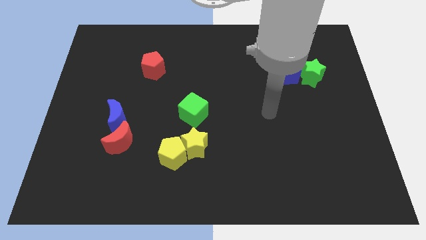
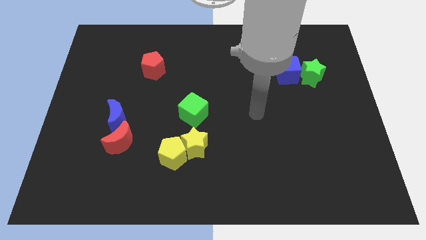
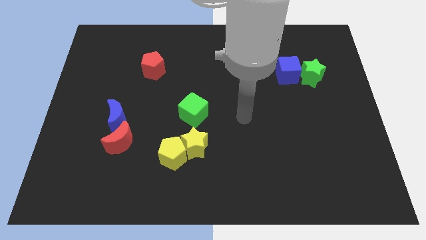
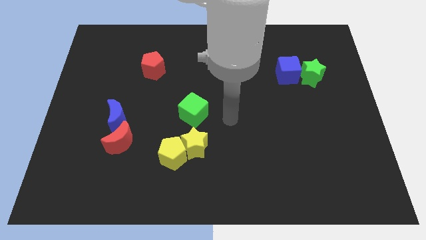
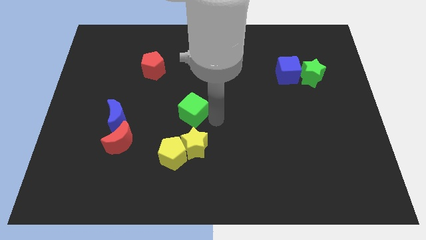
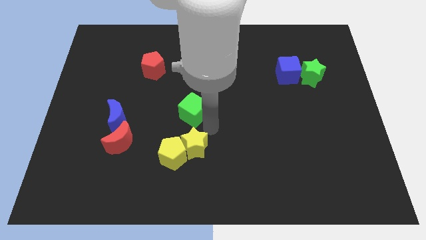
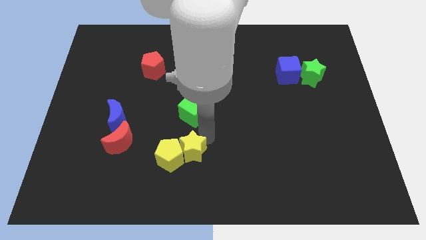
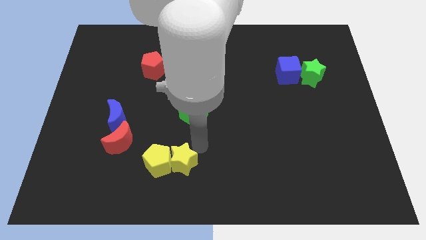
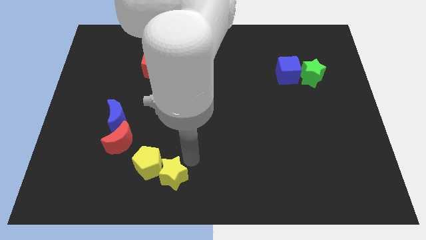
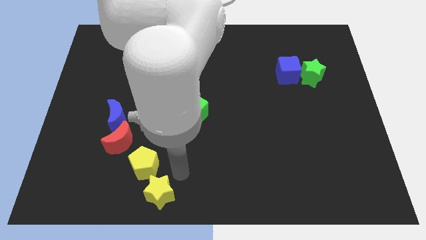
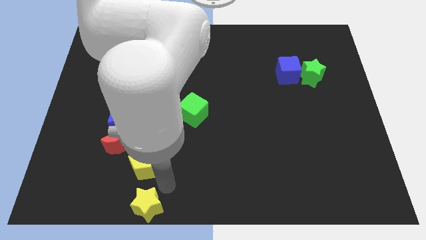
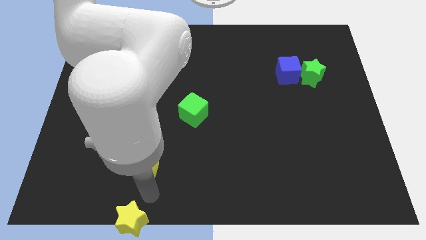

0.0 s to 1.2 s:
pull the yellow pentagon apart from the yellow star

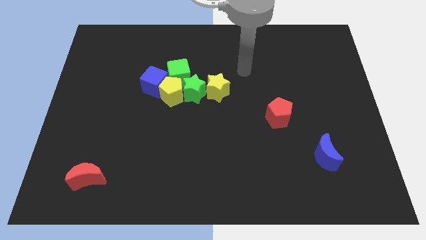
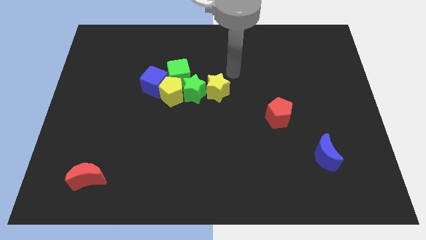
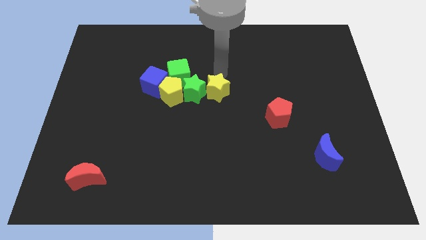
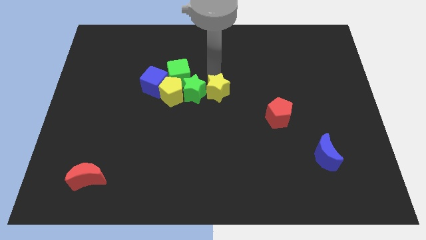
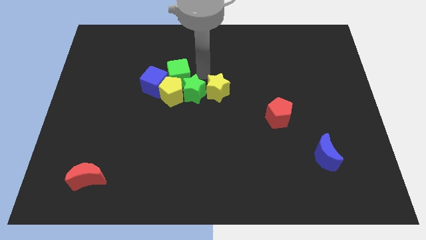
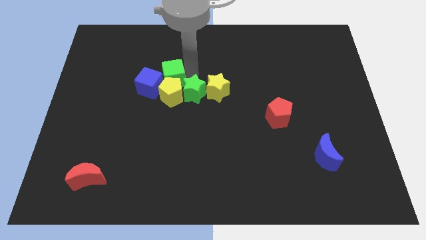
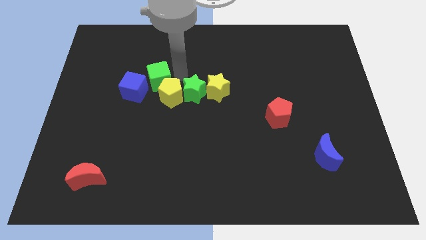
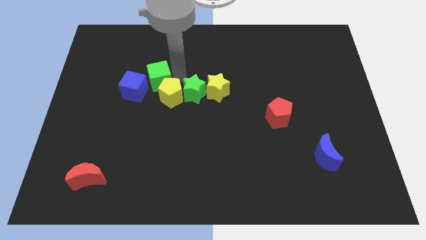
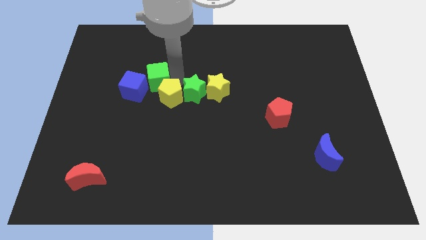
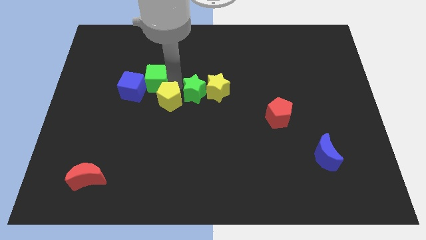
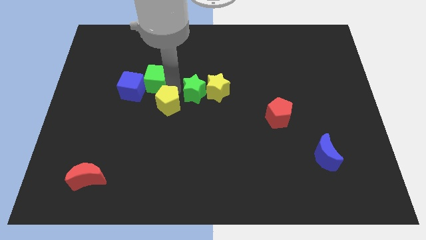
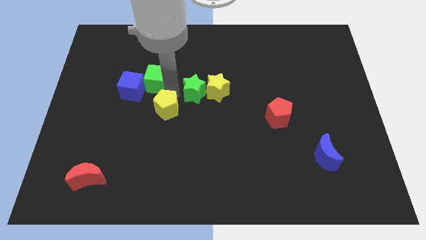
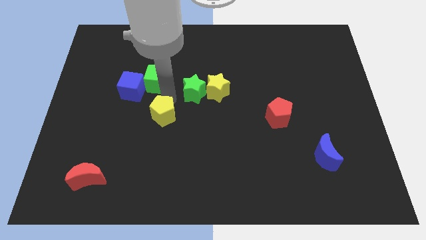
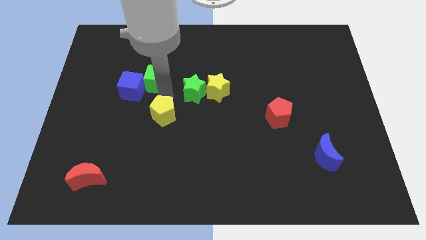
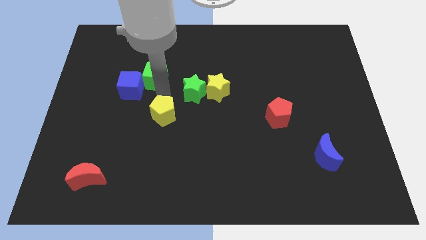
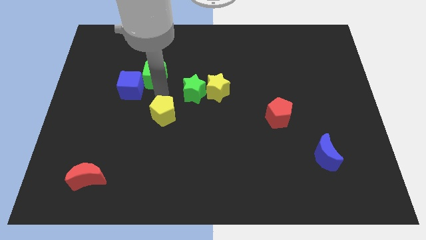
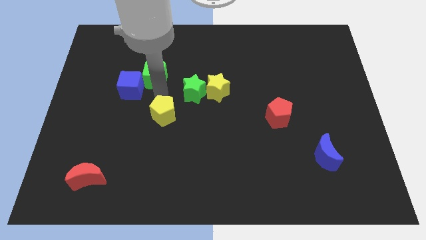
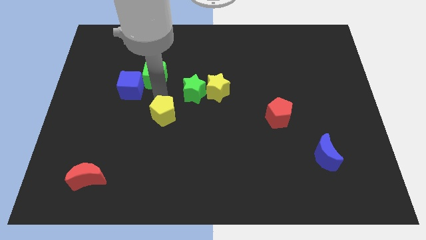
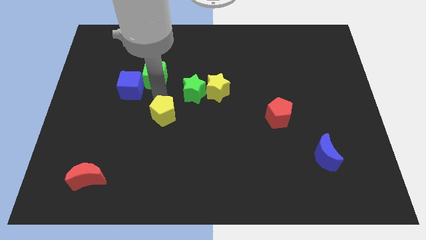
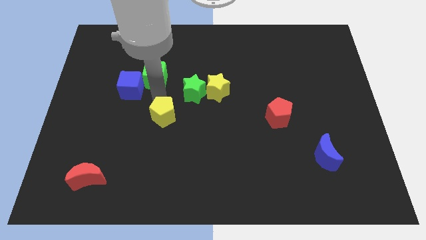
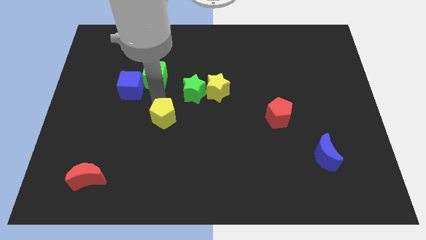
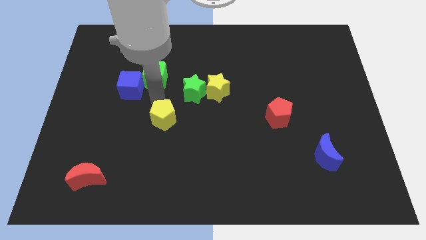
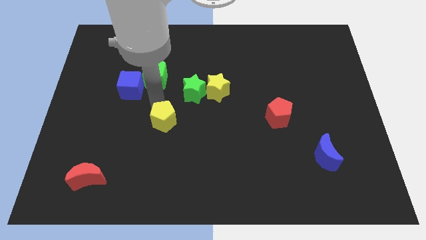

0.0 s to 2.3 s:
pull the yellow pentagon apart from the green star, blue cube, and green cube

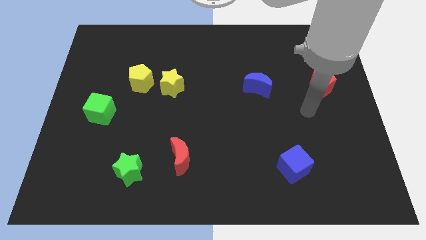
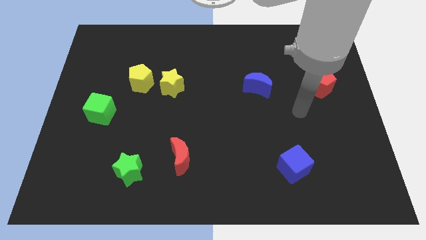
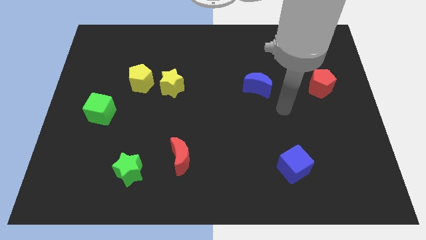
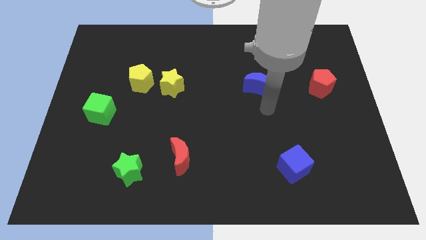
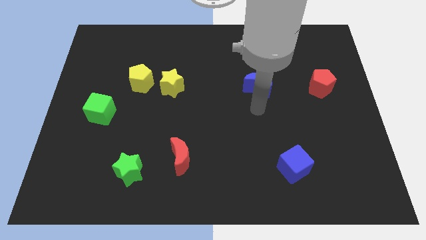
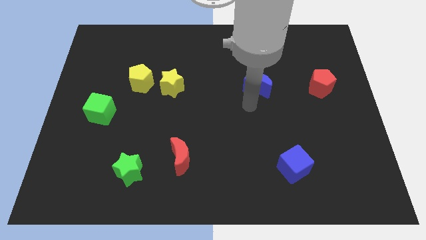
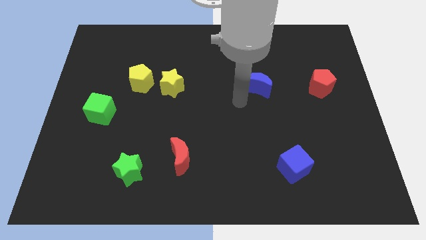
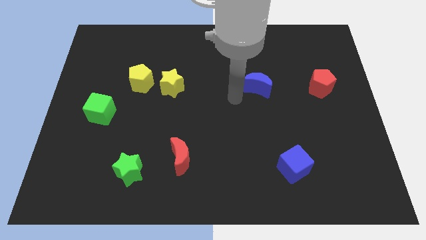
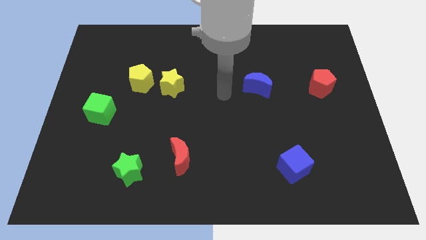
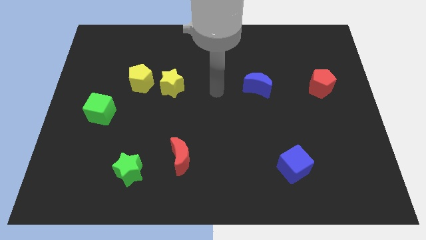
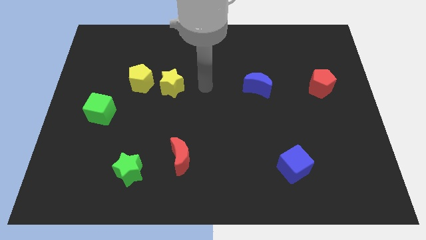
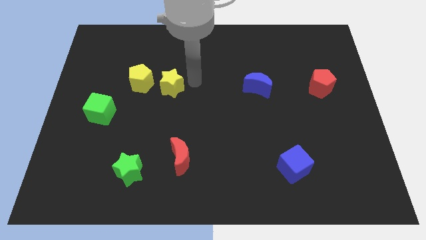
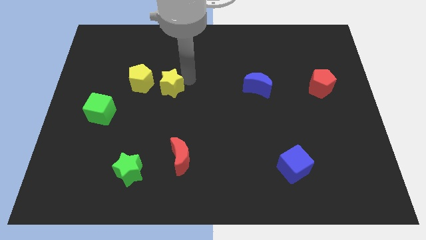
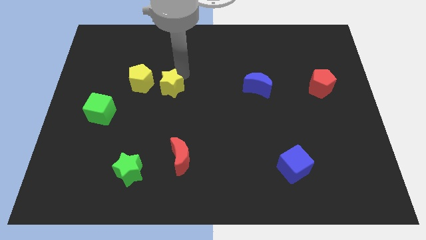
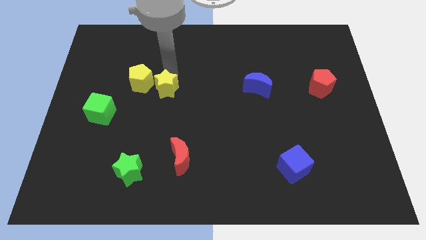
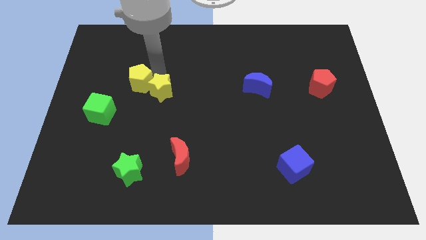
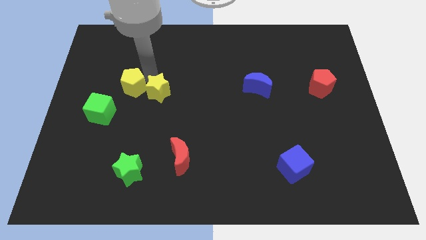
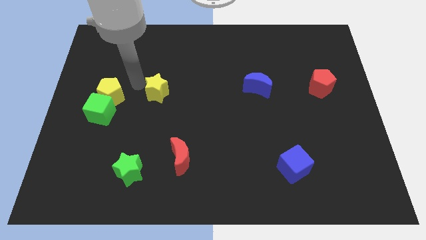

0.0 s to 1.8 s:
separate the yellow star from the yellow pentagon

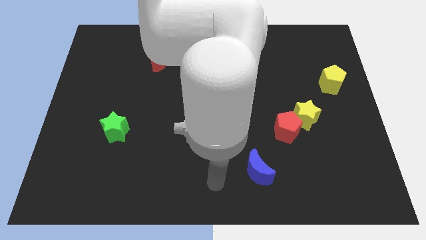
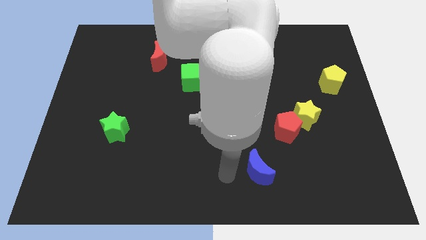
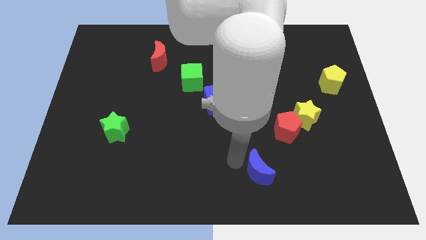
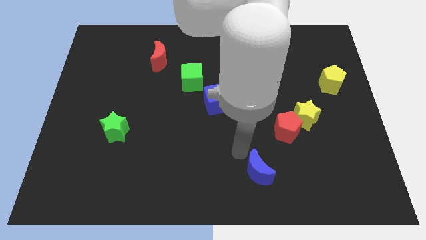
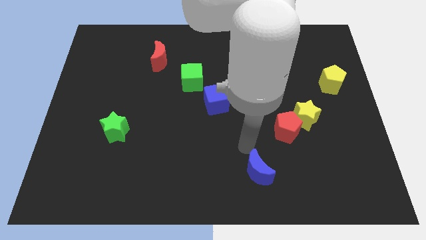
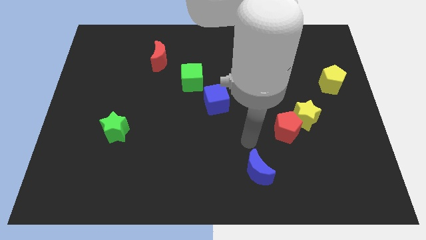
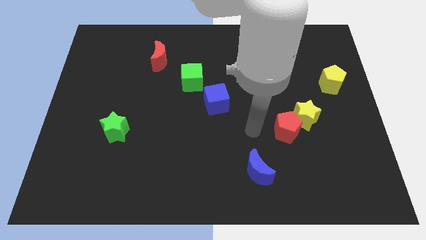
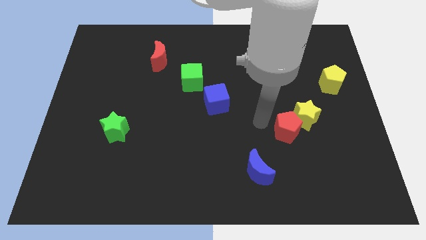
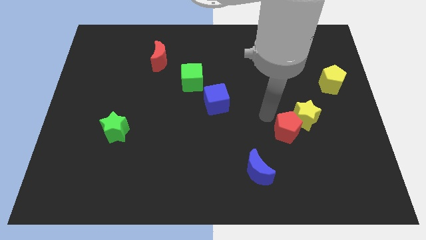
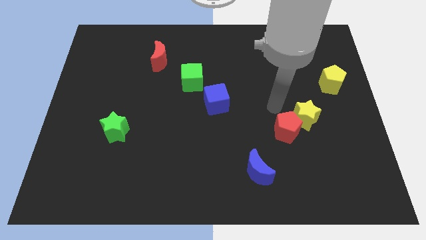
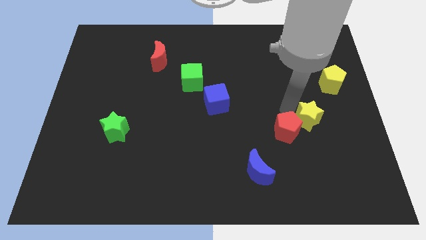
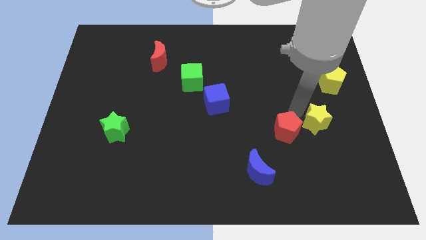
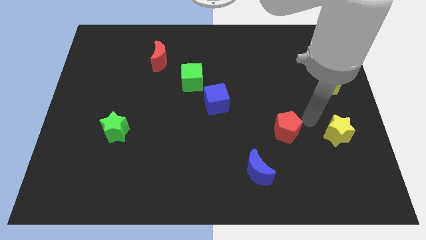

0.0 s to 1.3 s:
move the red pentagon away from the yellow star

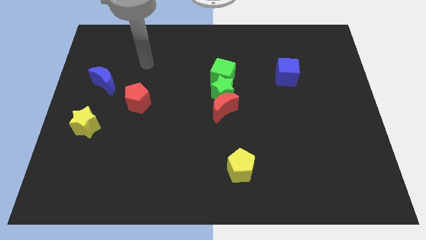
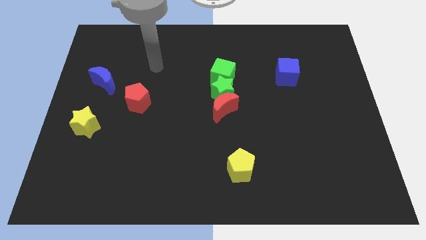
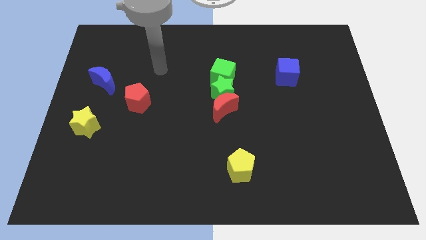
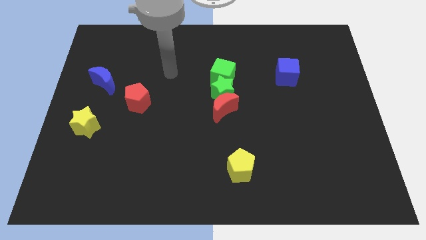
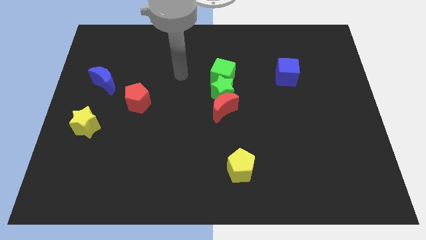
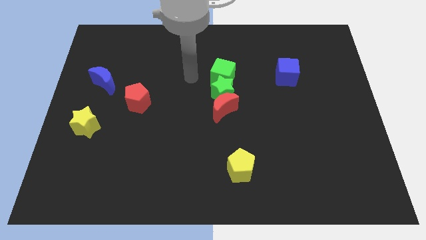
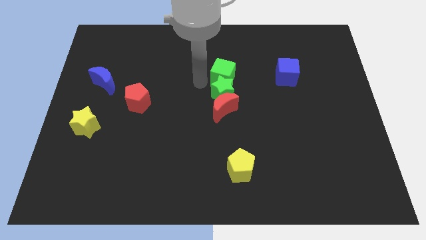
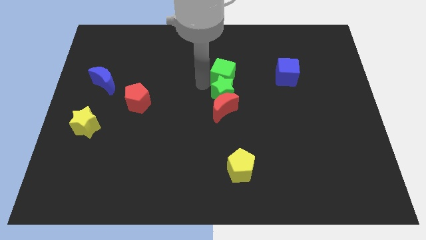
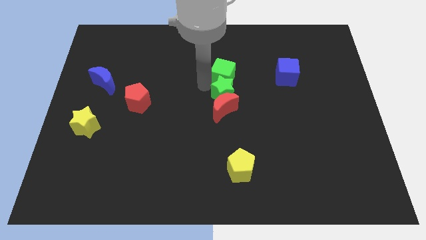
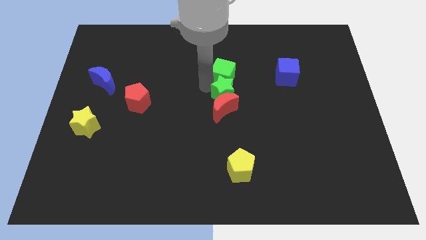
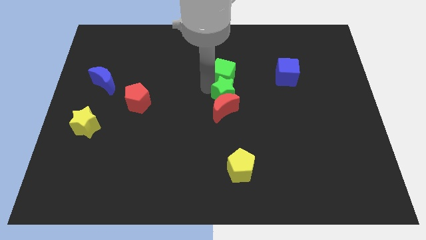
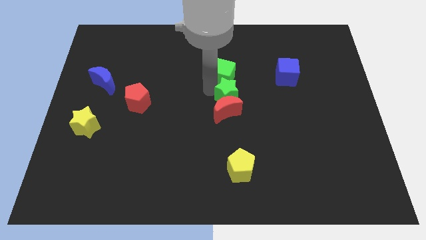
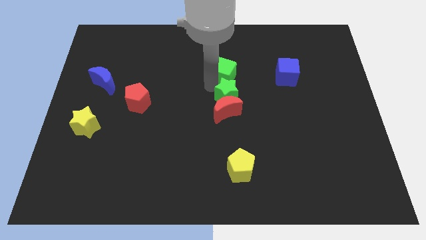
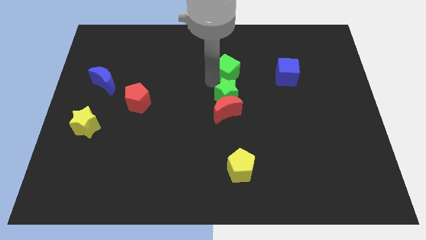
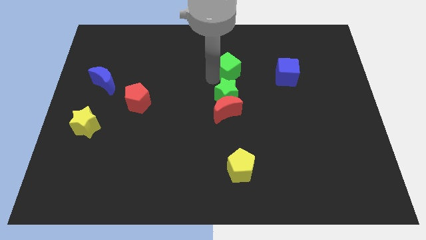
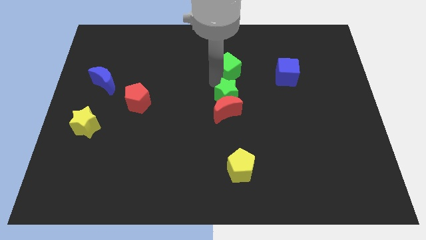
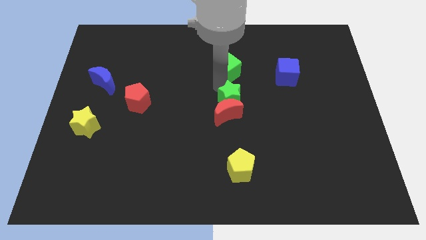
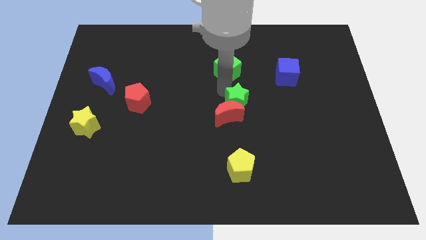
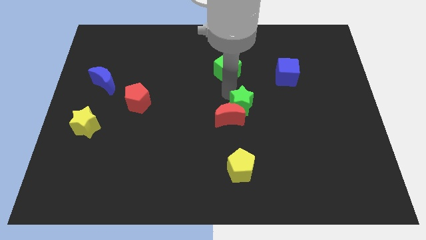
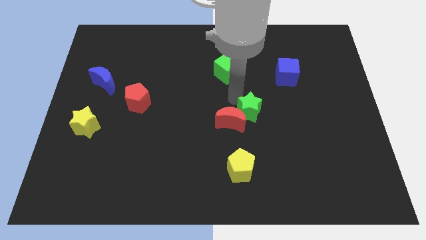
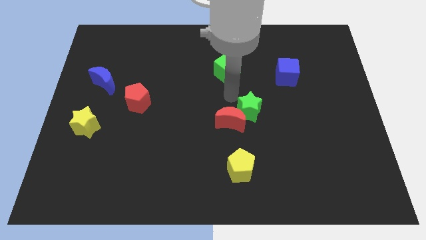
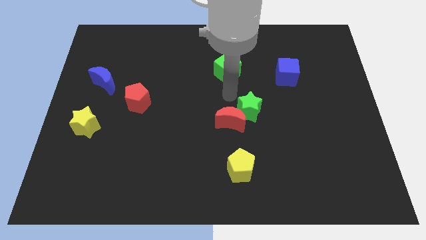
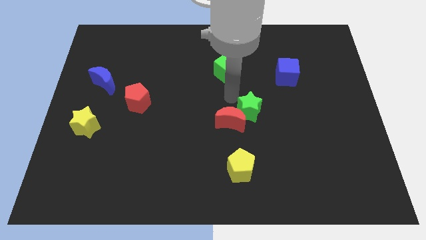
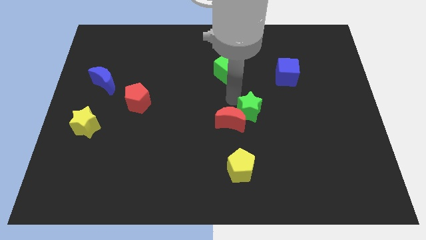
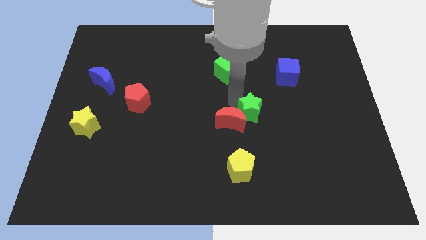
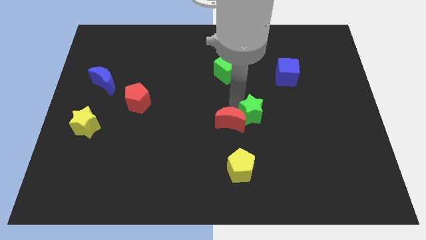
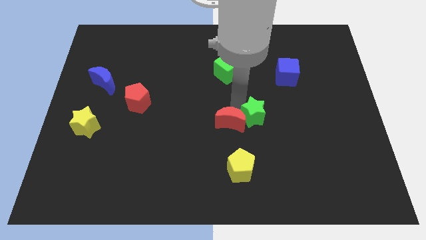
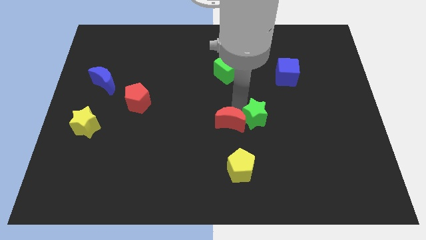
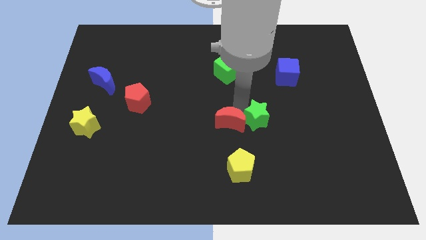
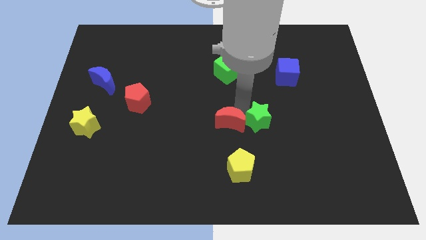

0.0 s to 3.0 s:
move the green star away from the red moon and green cube
